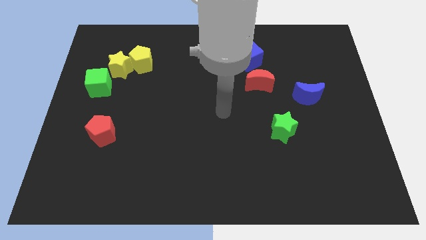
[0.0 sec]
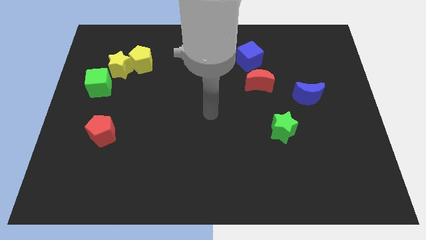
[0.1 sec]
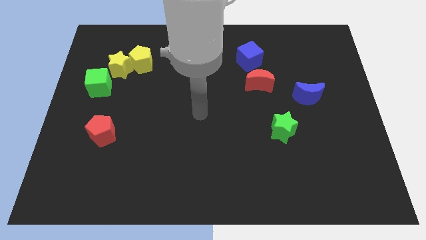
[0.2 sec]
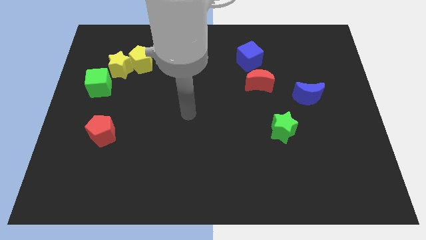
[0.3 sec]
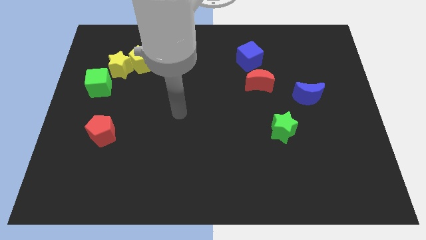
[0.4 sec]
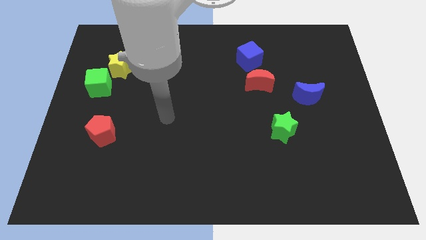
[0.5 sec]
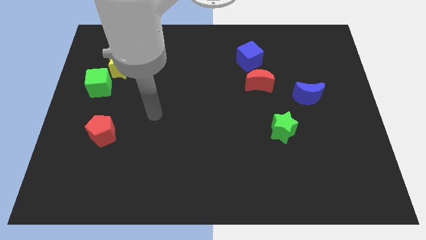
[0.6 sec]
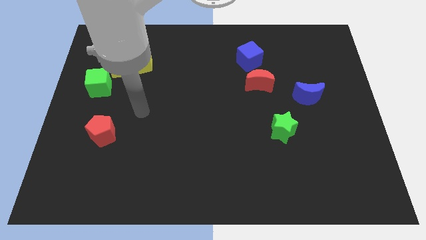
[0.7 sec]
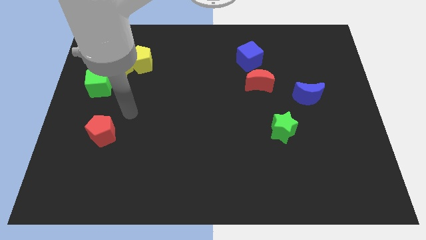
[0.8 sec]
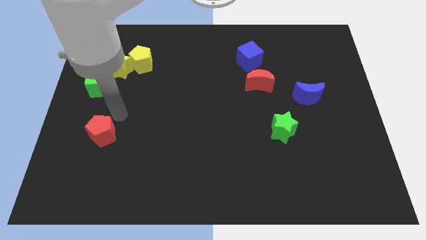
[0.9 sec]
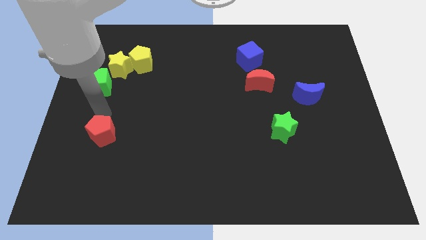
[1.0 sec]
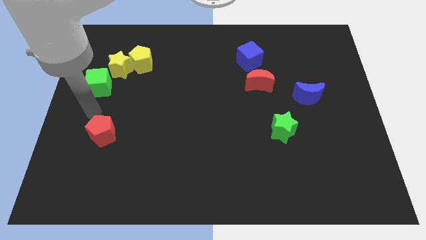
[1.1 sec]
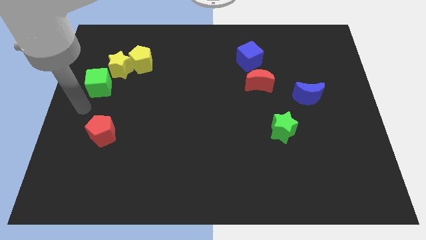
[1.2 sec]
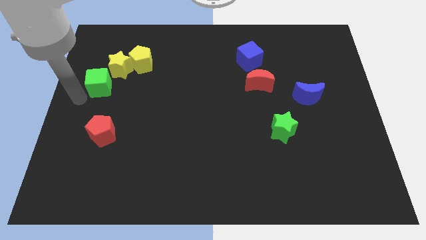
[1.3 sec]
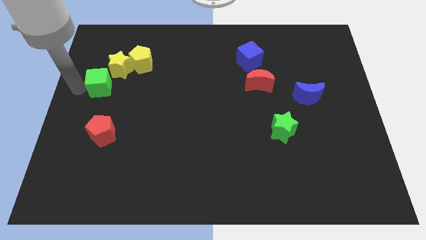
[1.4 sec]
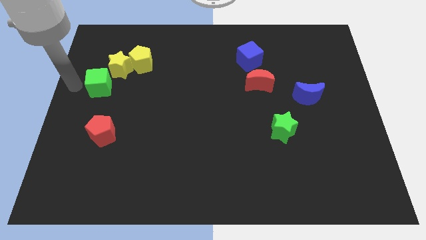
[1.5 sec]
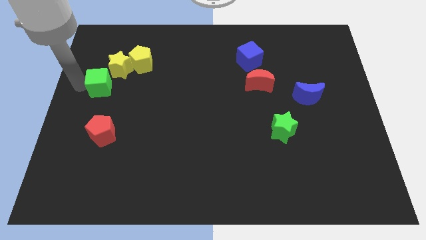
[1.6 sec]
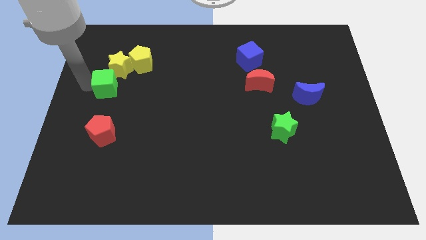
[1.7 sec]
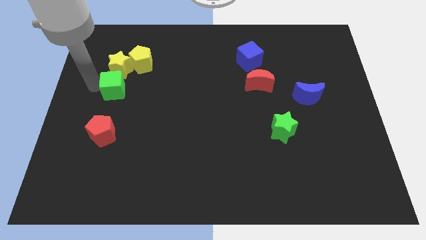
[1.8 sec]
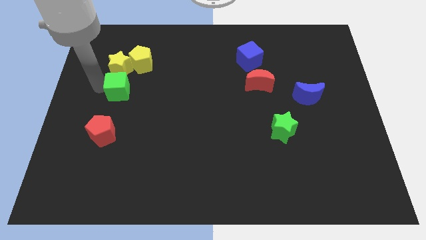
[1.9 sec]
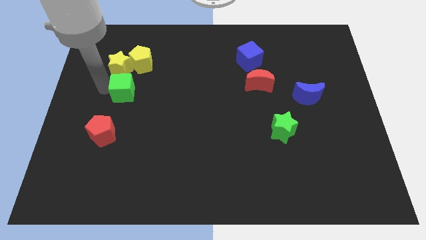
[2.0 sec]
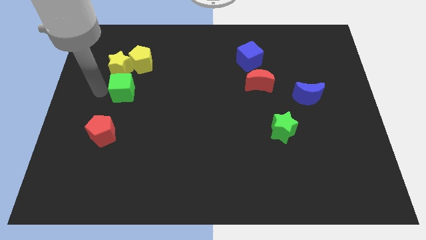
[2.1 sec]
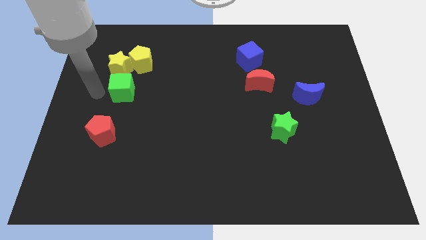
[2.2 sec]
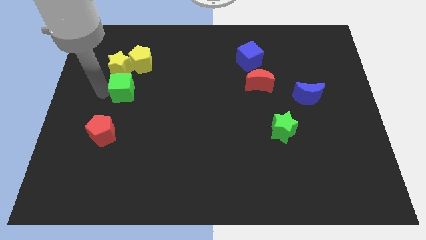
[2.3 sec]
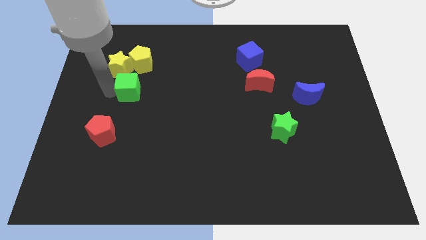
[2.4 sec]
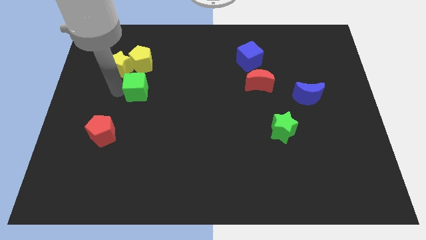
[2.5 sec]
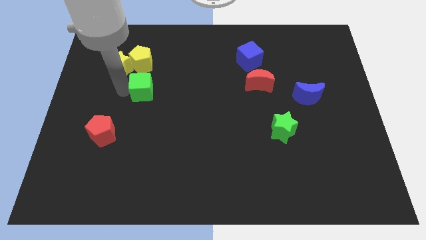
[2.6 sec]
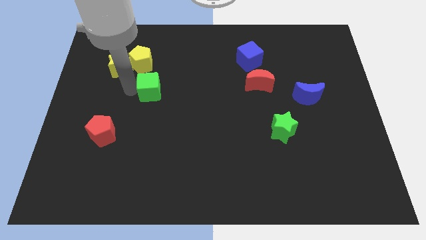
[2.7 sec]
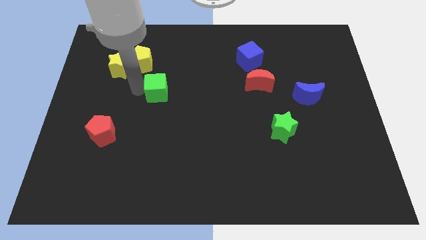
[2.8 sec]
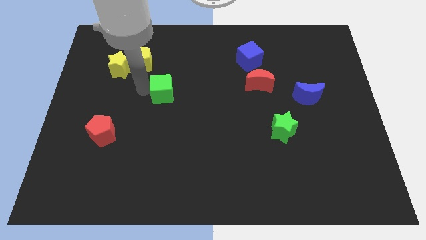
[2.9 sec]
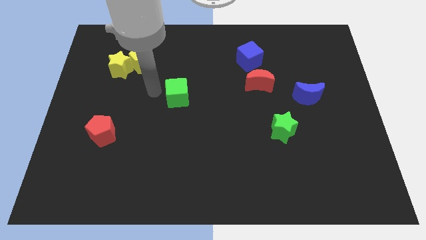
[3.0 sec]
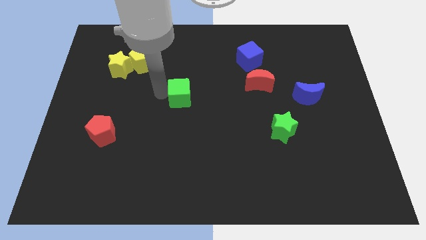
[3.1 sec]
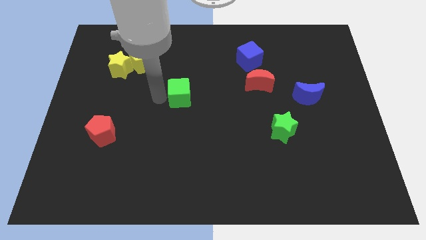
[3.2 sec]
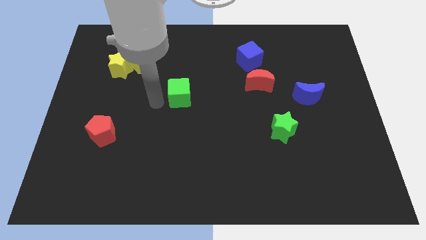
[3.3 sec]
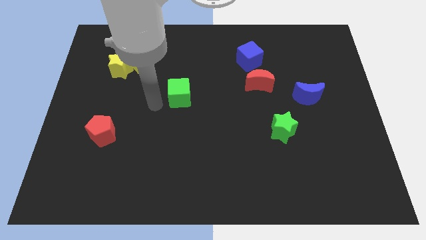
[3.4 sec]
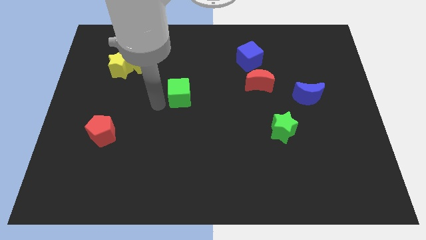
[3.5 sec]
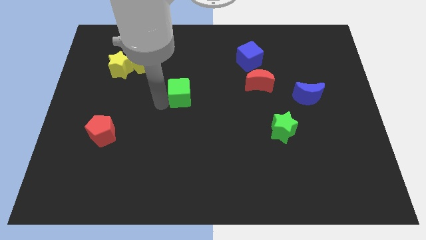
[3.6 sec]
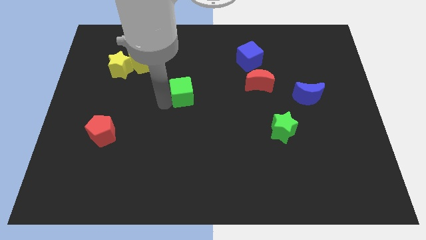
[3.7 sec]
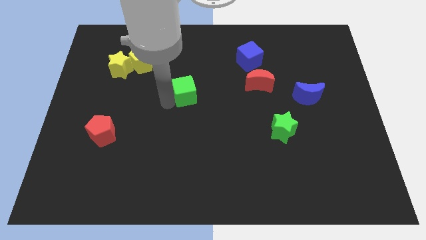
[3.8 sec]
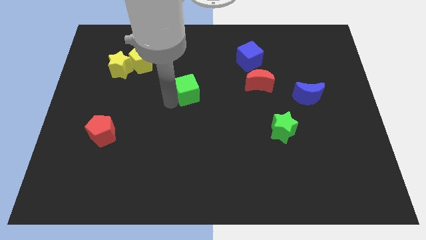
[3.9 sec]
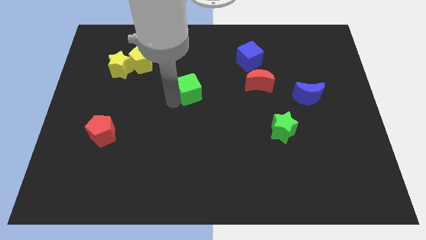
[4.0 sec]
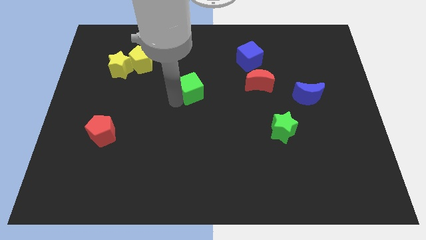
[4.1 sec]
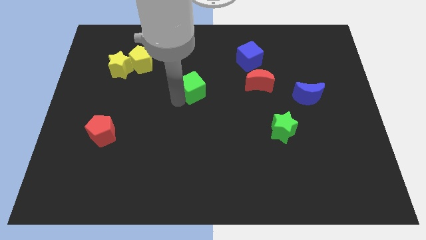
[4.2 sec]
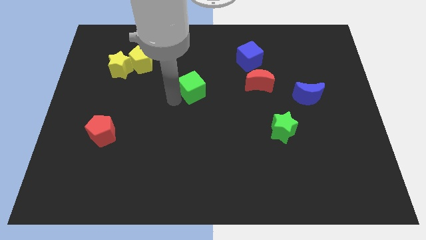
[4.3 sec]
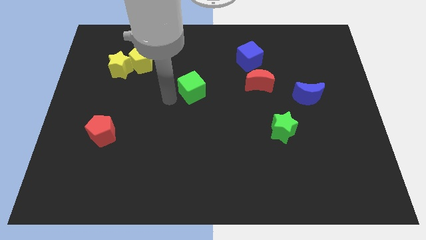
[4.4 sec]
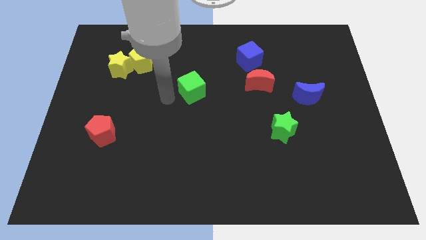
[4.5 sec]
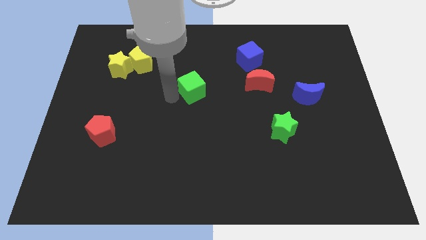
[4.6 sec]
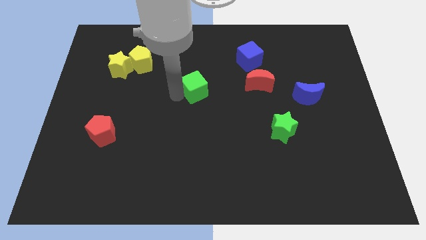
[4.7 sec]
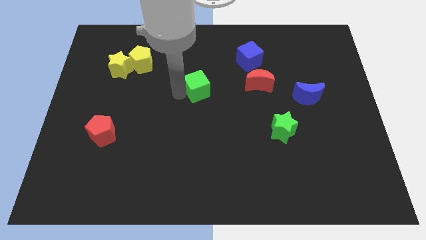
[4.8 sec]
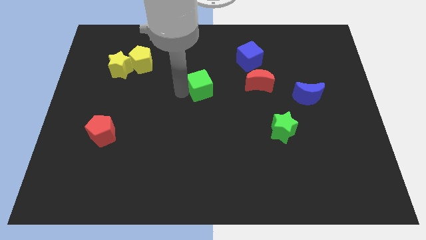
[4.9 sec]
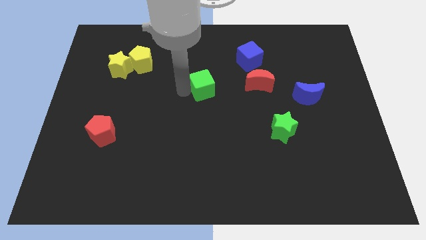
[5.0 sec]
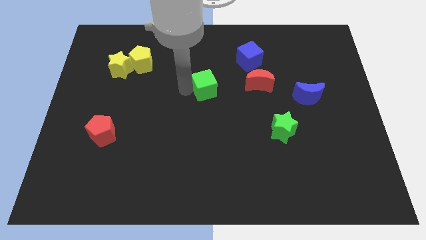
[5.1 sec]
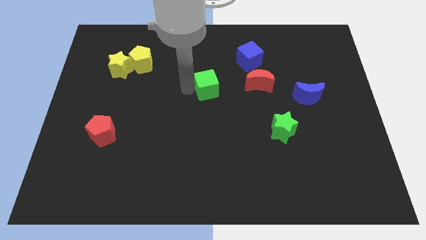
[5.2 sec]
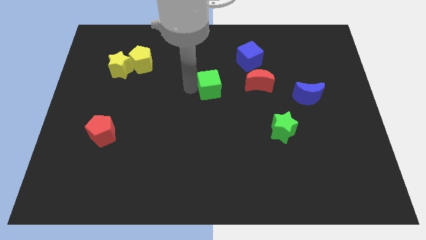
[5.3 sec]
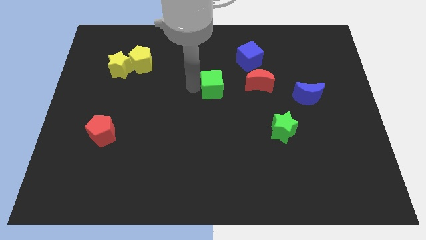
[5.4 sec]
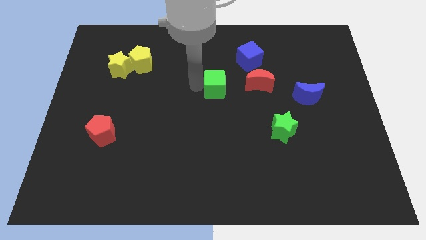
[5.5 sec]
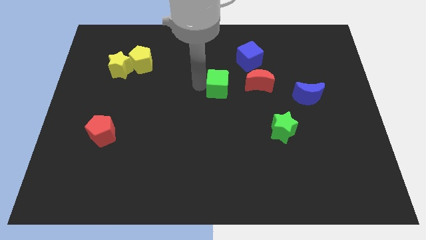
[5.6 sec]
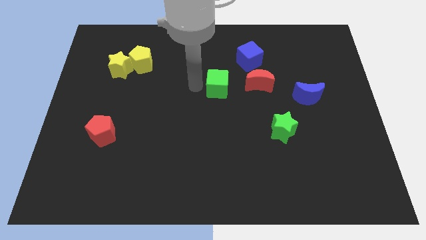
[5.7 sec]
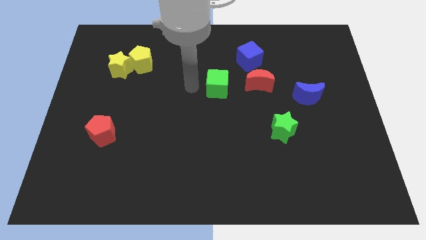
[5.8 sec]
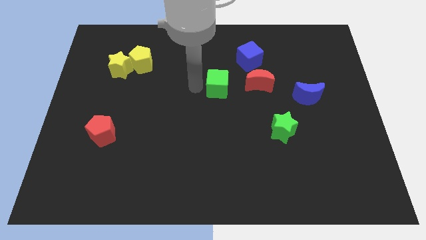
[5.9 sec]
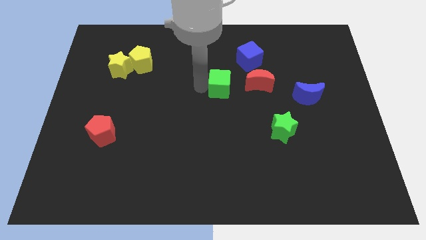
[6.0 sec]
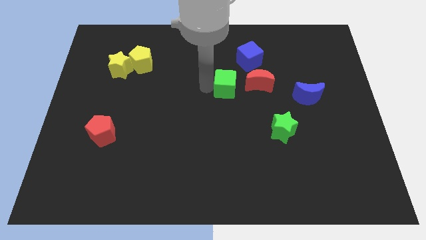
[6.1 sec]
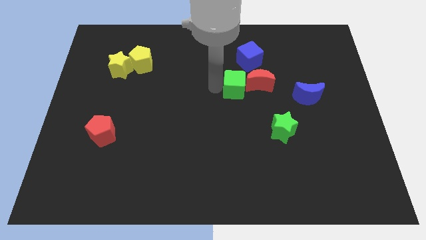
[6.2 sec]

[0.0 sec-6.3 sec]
push the green cube to the red moon

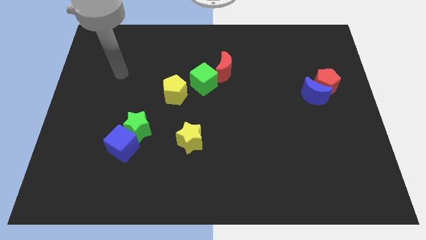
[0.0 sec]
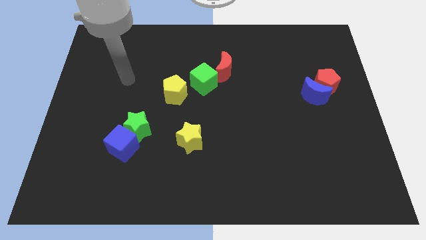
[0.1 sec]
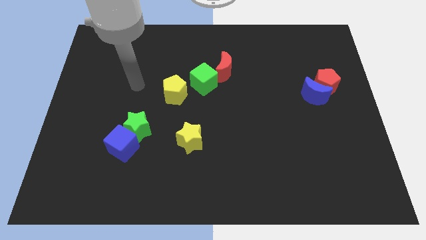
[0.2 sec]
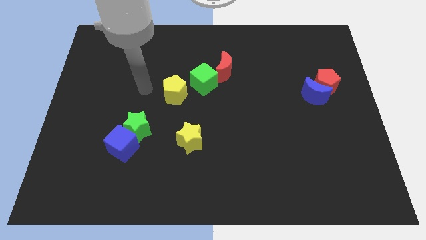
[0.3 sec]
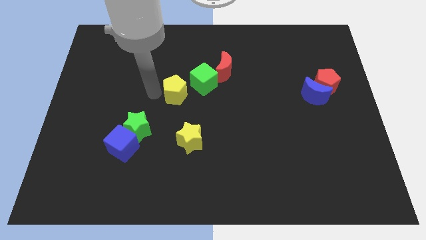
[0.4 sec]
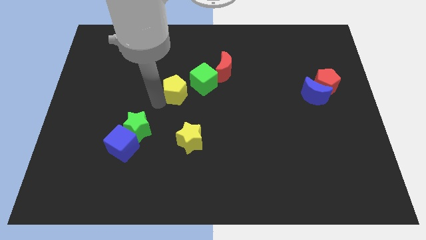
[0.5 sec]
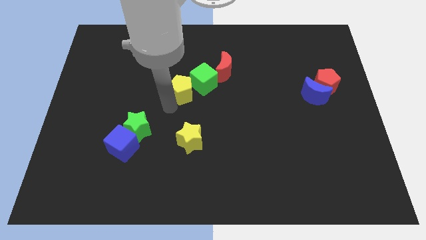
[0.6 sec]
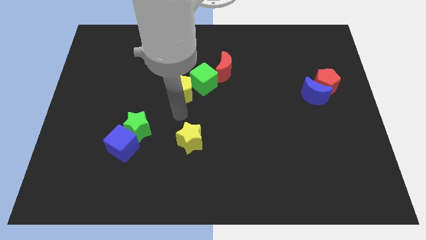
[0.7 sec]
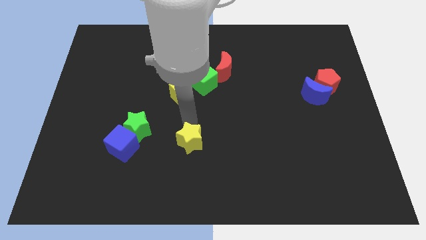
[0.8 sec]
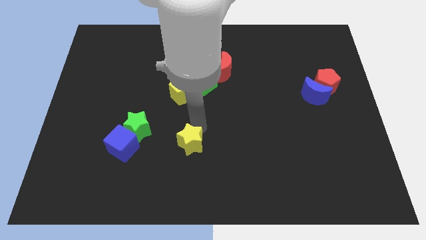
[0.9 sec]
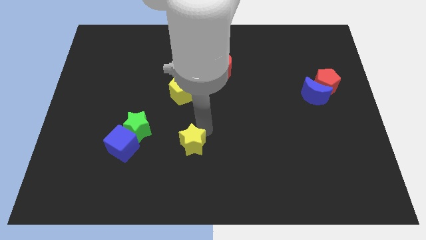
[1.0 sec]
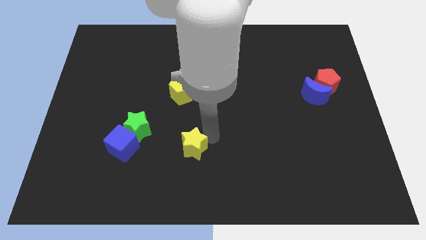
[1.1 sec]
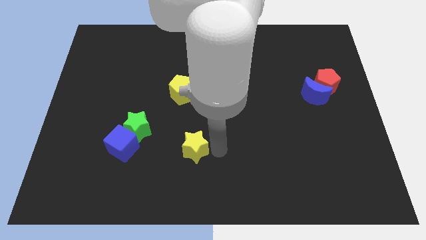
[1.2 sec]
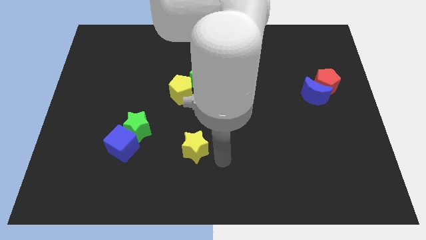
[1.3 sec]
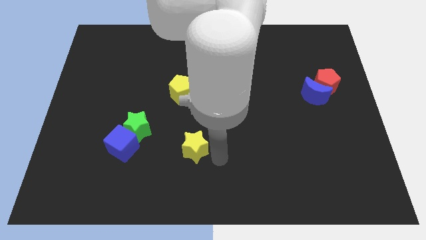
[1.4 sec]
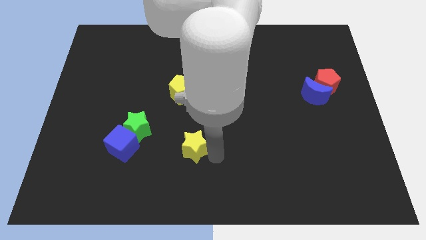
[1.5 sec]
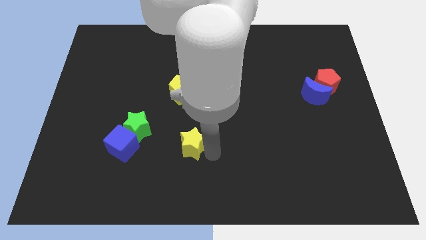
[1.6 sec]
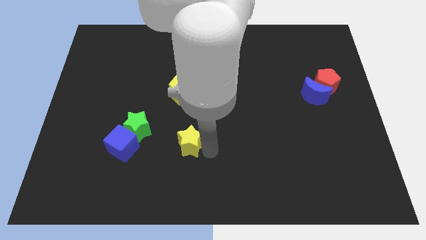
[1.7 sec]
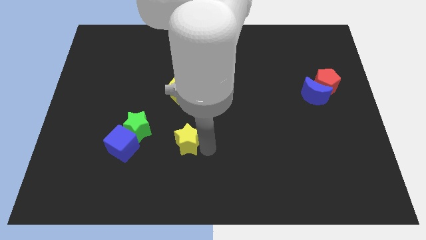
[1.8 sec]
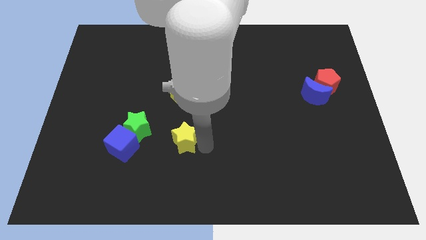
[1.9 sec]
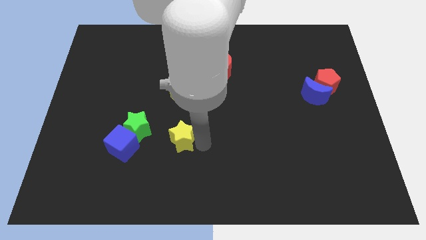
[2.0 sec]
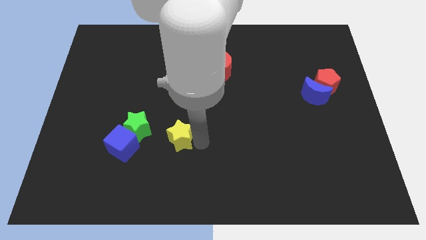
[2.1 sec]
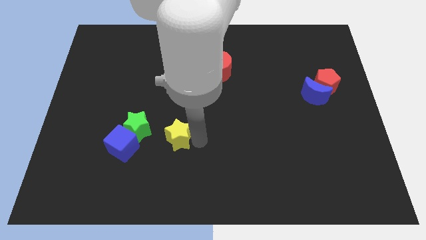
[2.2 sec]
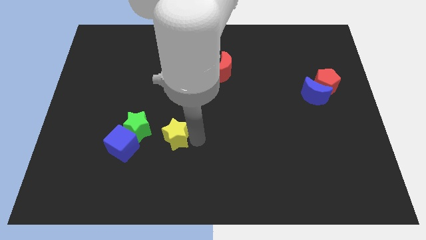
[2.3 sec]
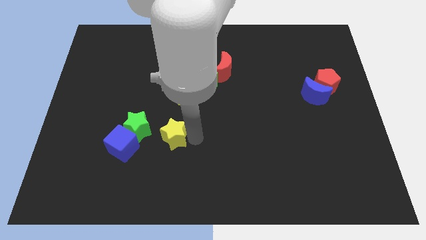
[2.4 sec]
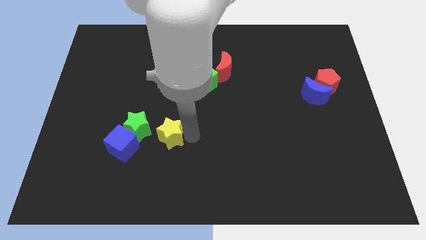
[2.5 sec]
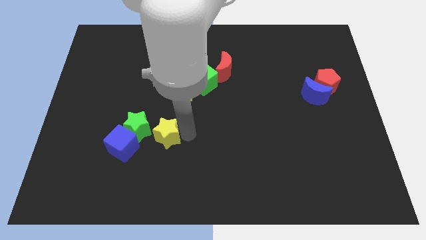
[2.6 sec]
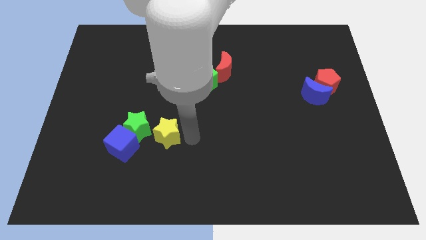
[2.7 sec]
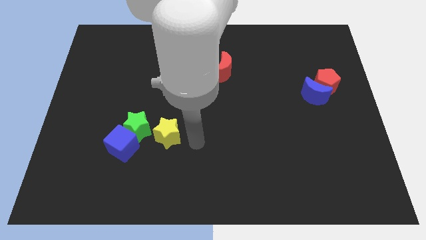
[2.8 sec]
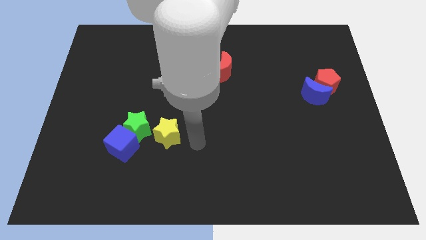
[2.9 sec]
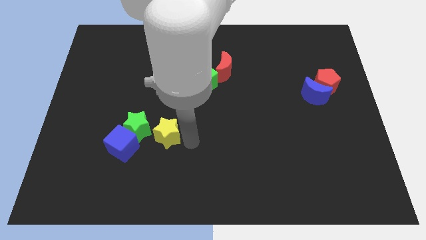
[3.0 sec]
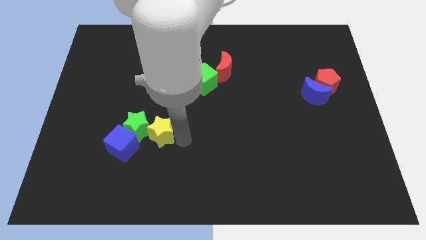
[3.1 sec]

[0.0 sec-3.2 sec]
put the yellow star close to the green star
